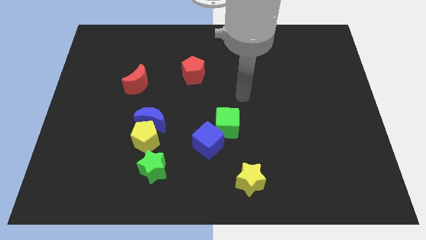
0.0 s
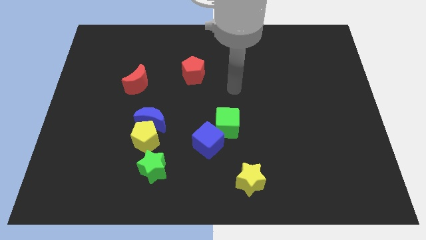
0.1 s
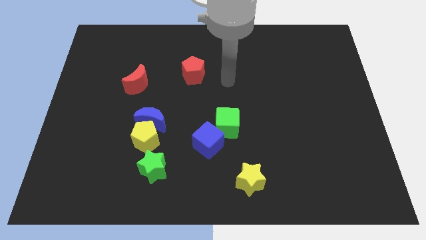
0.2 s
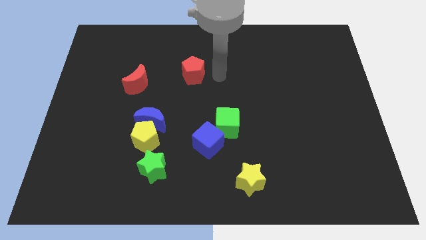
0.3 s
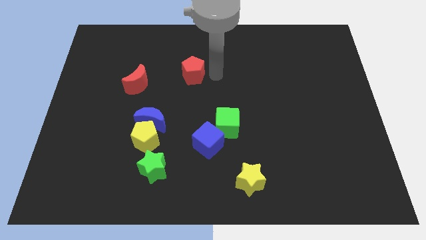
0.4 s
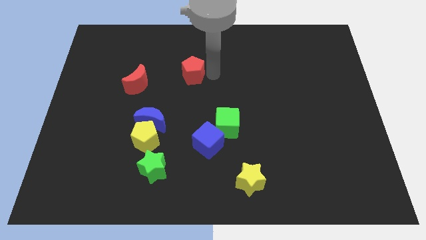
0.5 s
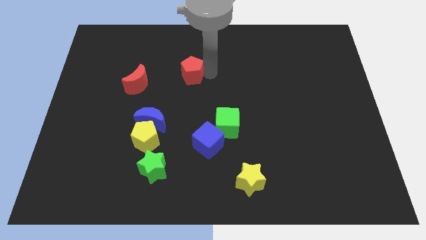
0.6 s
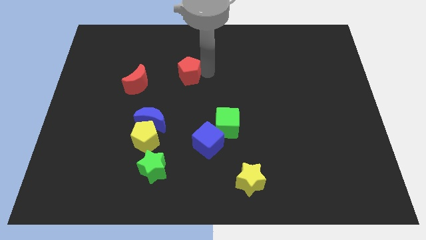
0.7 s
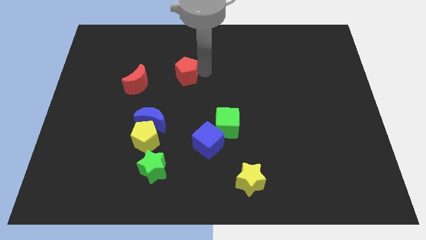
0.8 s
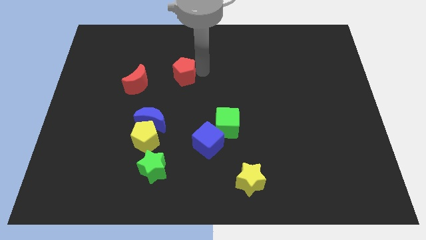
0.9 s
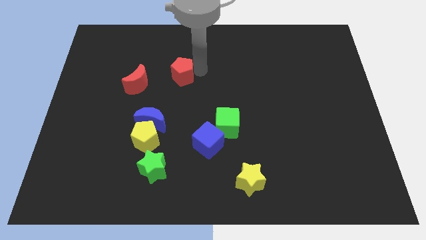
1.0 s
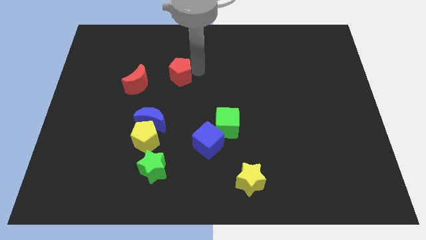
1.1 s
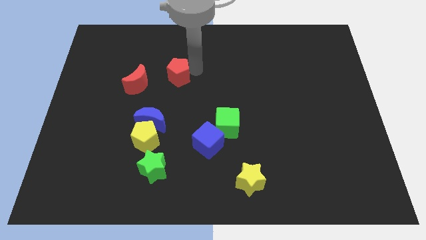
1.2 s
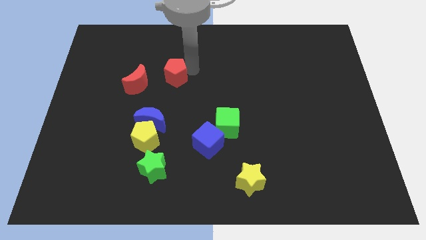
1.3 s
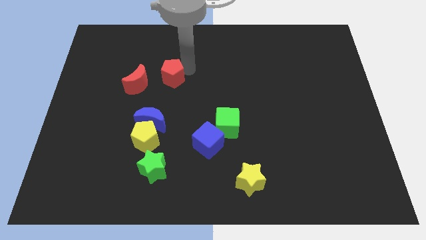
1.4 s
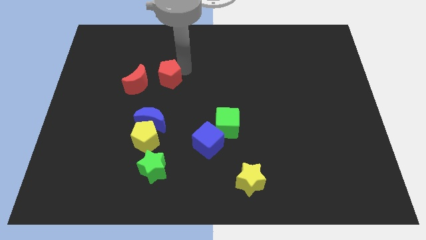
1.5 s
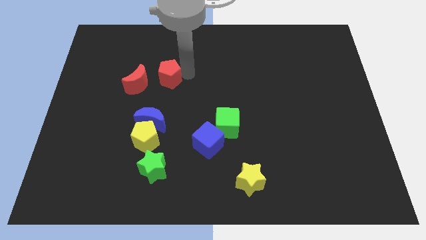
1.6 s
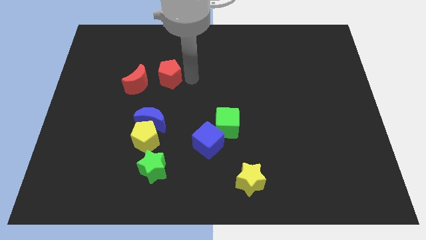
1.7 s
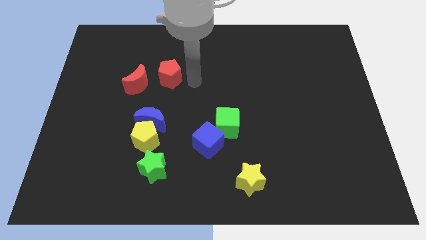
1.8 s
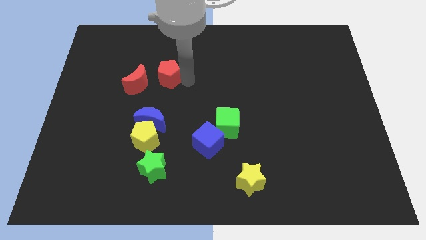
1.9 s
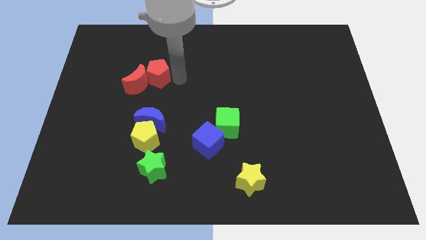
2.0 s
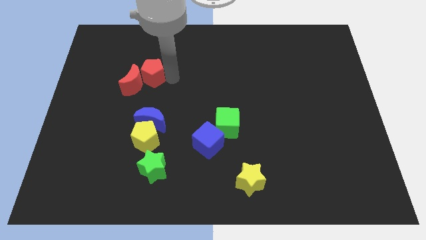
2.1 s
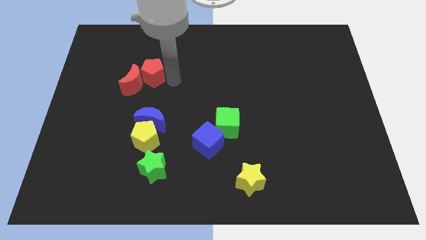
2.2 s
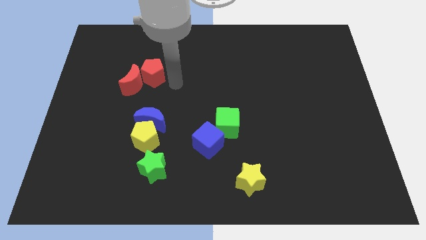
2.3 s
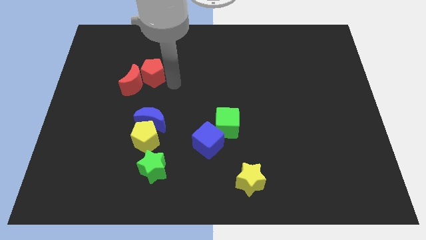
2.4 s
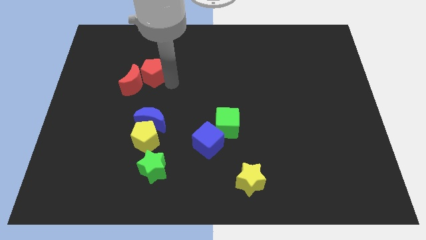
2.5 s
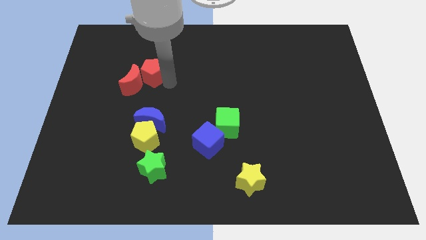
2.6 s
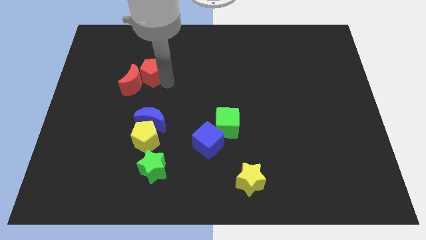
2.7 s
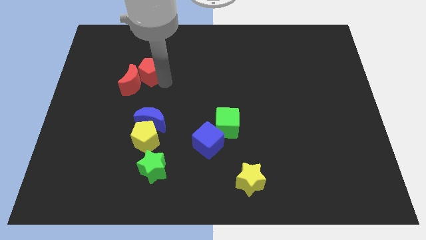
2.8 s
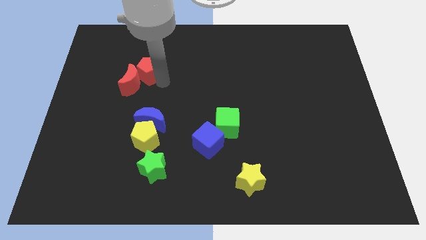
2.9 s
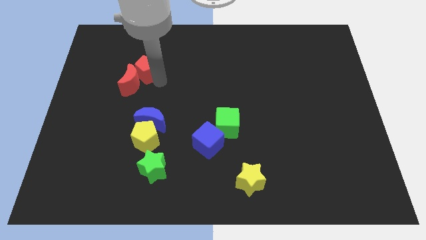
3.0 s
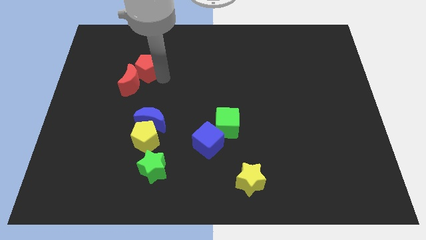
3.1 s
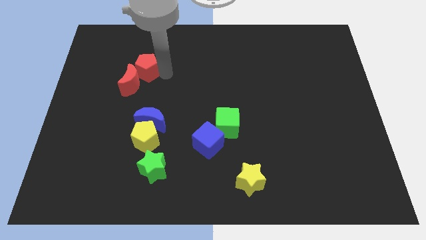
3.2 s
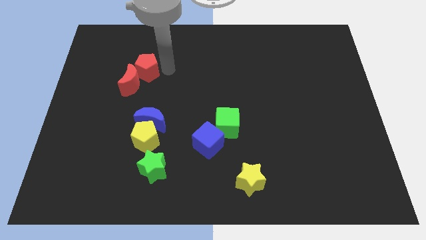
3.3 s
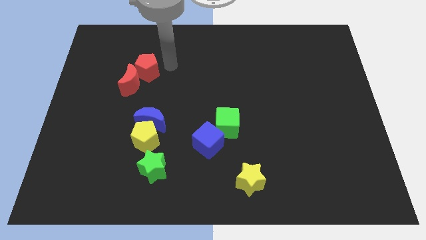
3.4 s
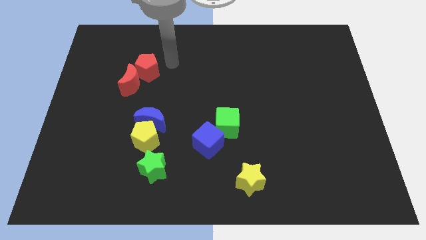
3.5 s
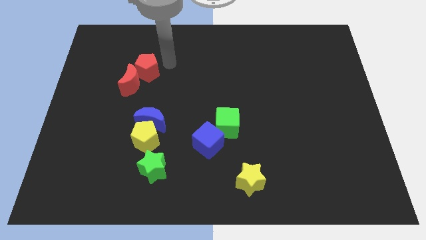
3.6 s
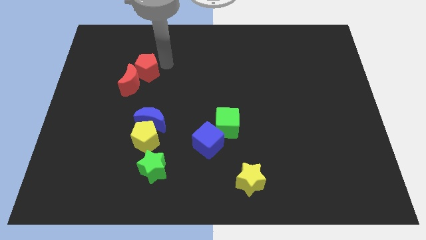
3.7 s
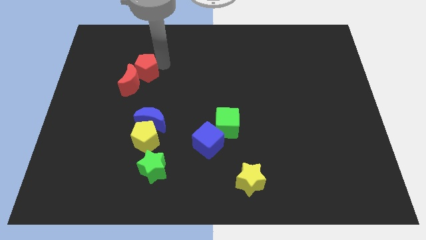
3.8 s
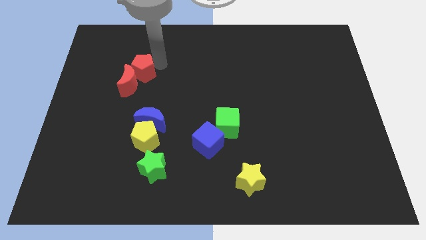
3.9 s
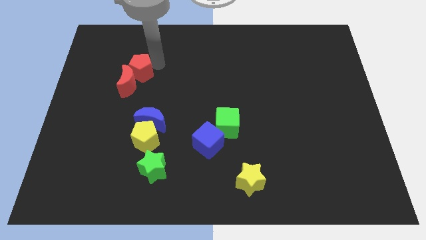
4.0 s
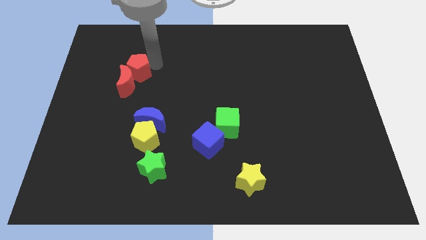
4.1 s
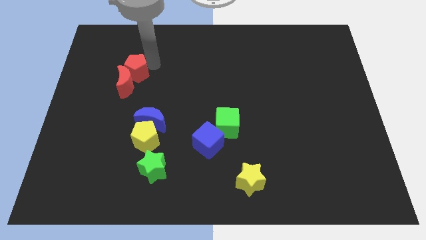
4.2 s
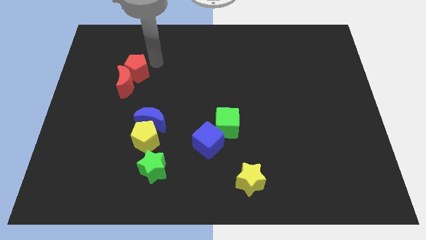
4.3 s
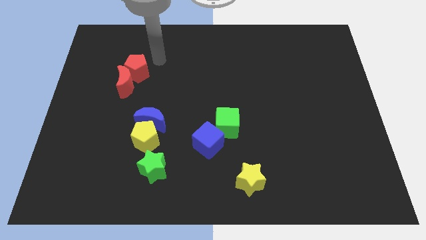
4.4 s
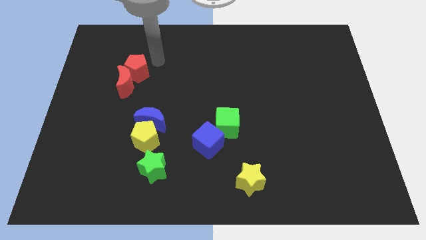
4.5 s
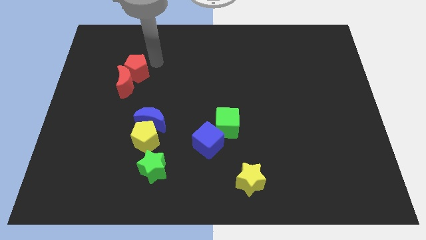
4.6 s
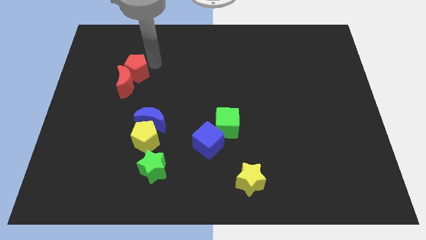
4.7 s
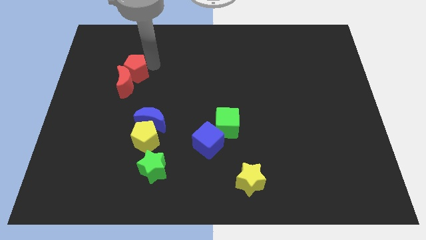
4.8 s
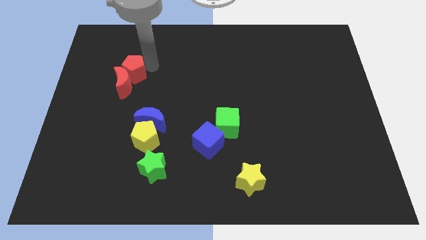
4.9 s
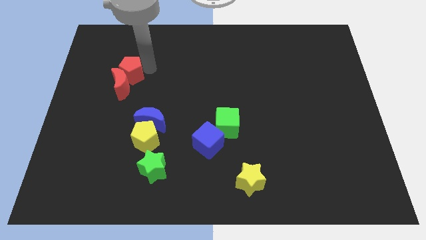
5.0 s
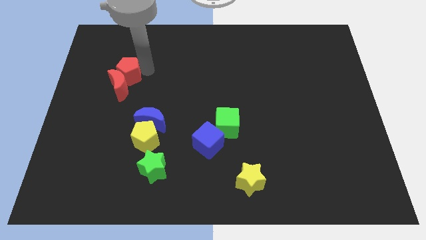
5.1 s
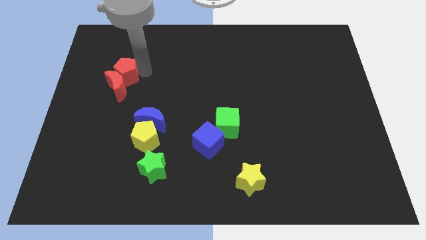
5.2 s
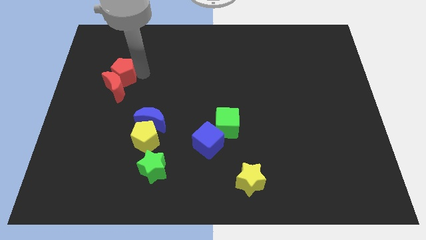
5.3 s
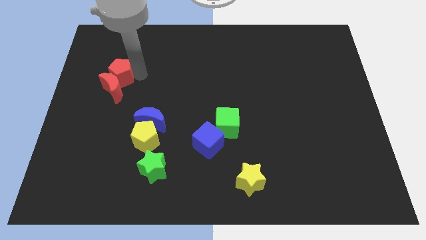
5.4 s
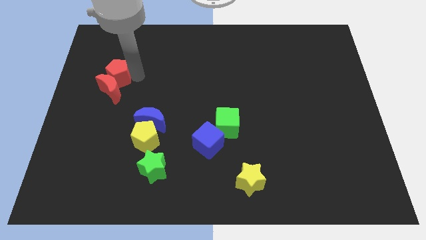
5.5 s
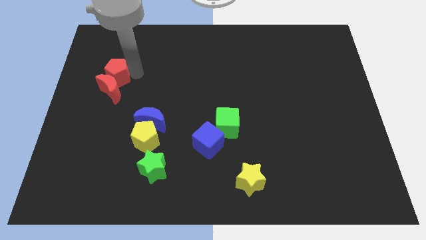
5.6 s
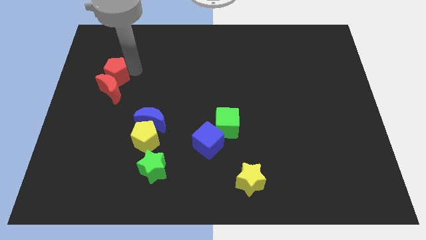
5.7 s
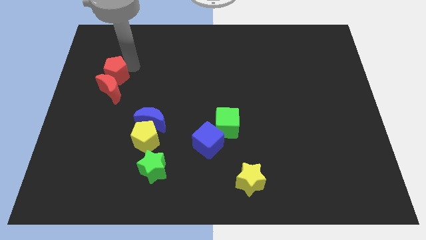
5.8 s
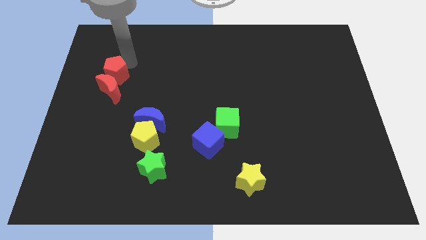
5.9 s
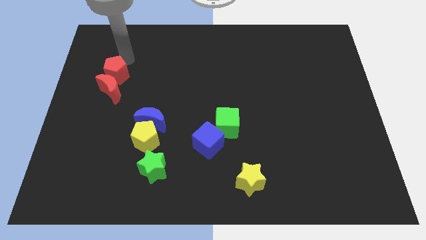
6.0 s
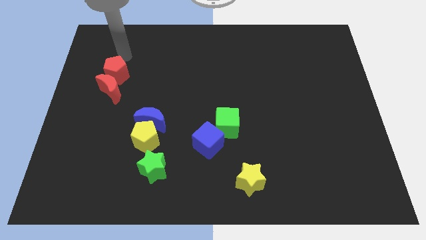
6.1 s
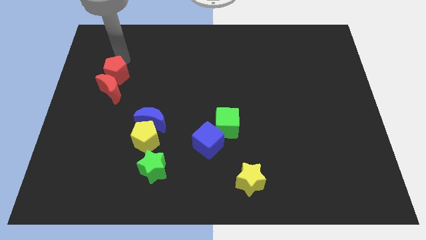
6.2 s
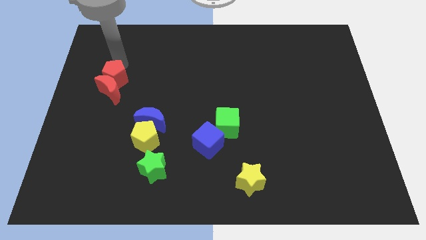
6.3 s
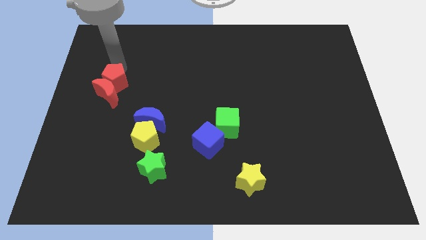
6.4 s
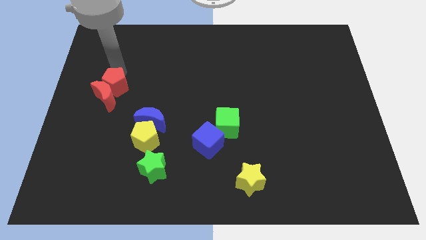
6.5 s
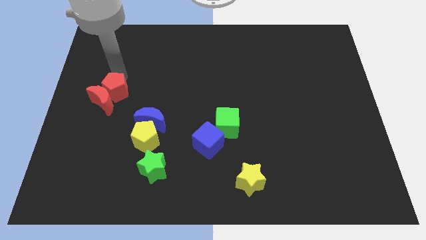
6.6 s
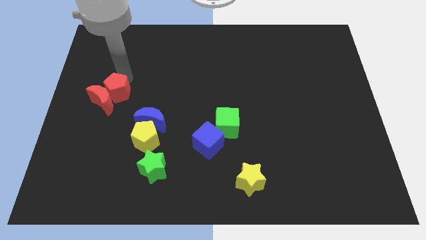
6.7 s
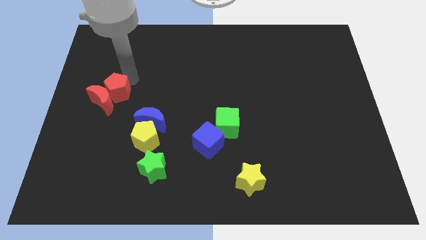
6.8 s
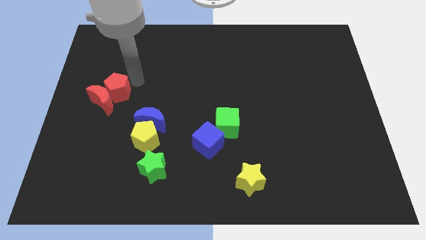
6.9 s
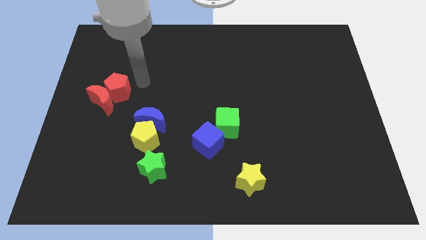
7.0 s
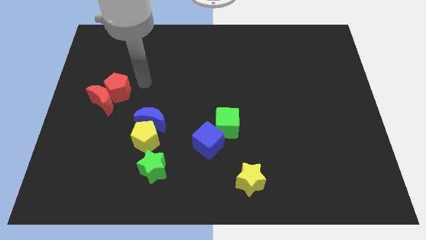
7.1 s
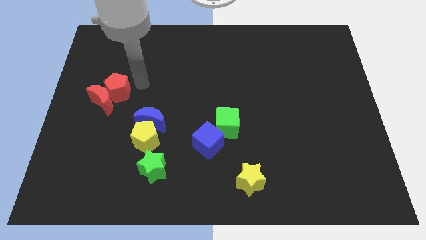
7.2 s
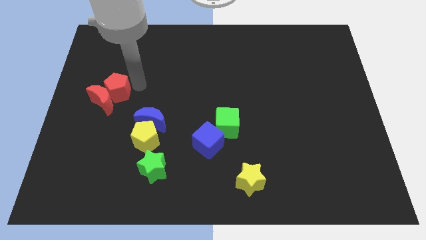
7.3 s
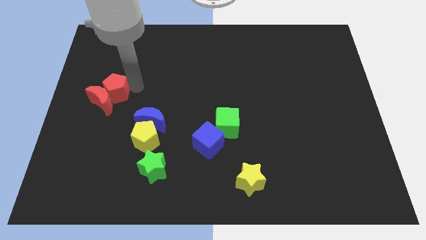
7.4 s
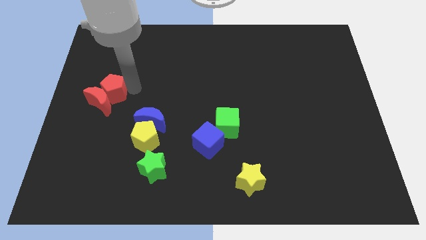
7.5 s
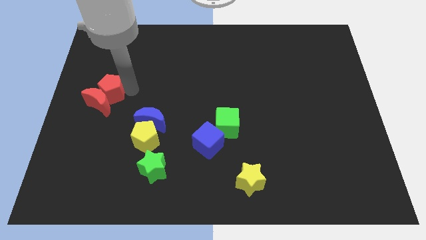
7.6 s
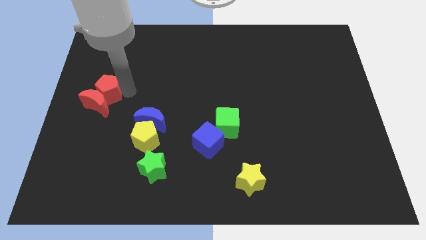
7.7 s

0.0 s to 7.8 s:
push the red pentagon to the center left
